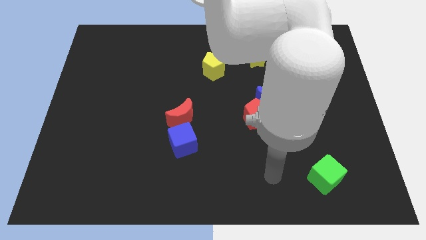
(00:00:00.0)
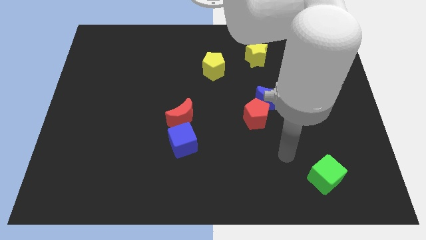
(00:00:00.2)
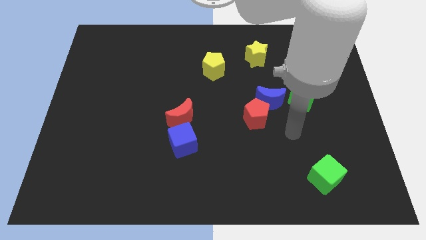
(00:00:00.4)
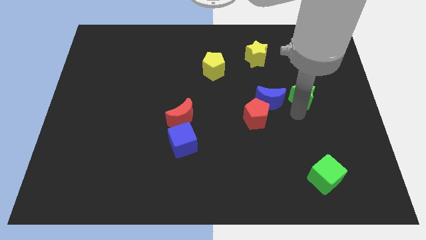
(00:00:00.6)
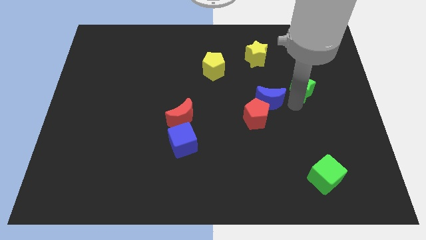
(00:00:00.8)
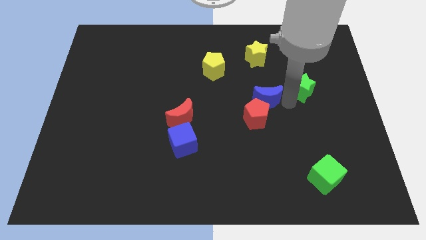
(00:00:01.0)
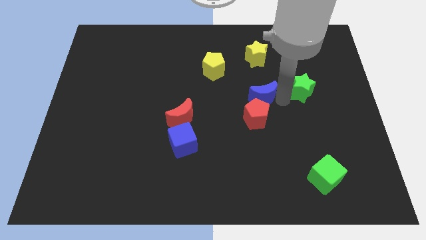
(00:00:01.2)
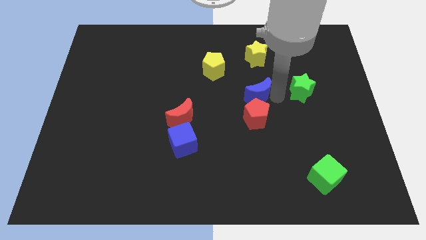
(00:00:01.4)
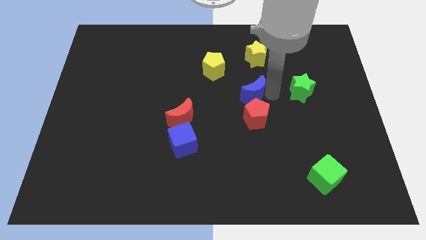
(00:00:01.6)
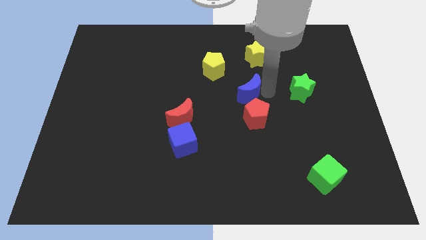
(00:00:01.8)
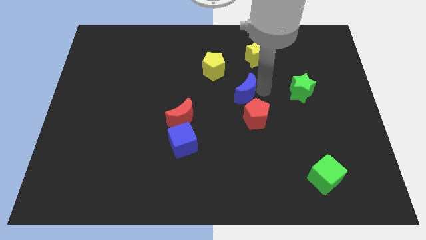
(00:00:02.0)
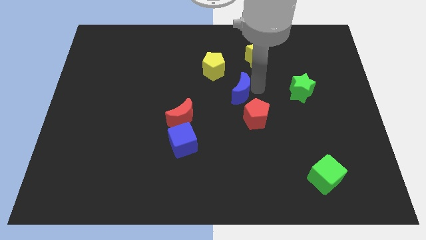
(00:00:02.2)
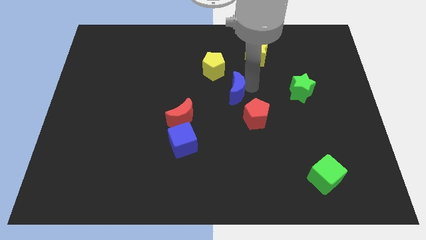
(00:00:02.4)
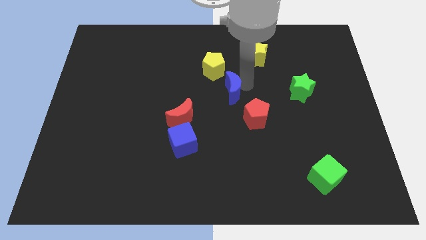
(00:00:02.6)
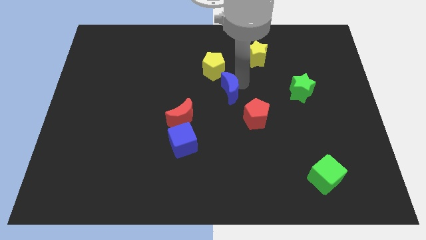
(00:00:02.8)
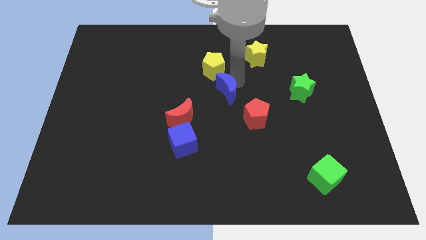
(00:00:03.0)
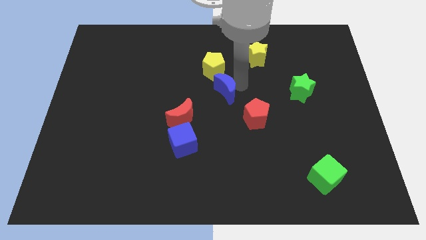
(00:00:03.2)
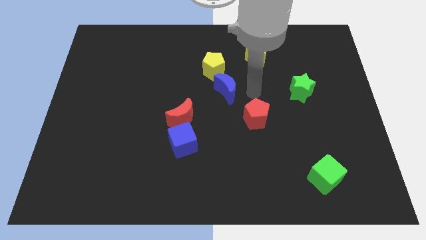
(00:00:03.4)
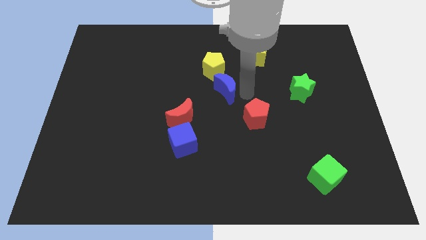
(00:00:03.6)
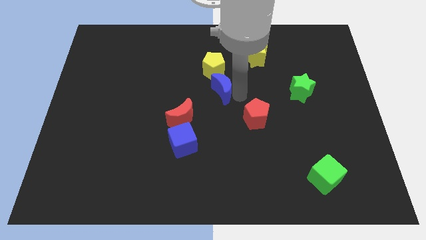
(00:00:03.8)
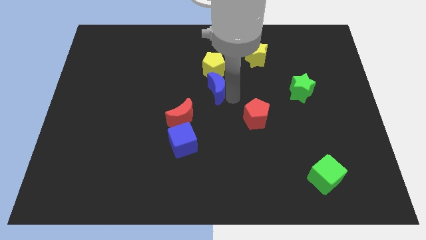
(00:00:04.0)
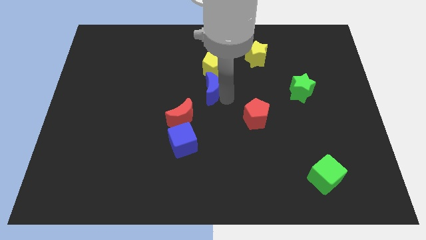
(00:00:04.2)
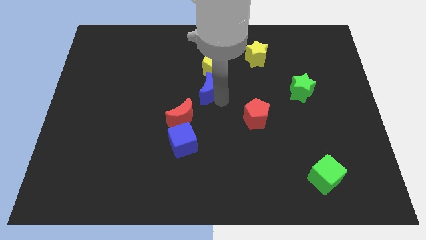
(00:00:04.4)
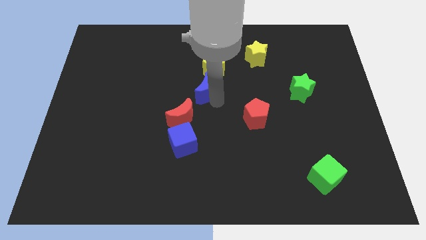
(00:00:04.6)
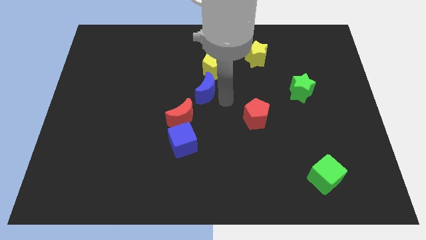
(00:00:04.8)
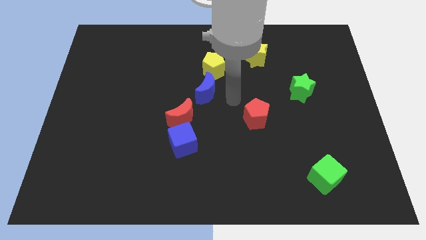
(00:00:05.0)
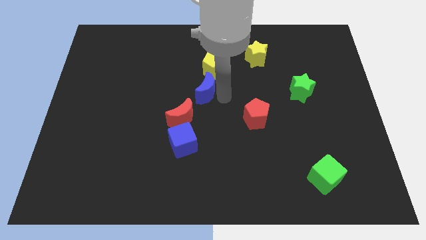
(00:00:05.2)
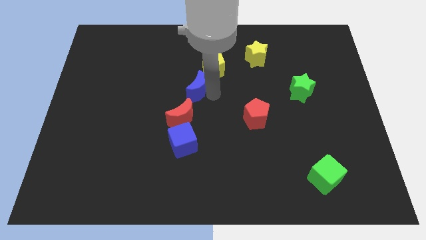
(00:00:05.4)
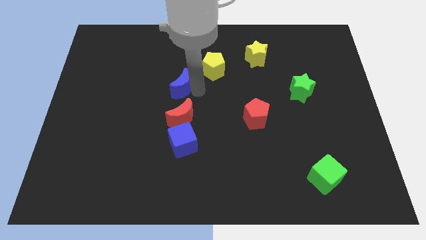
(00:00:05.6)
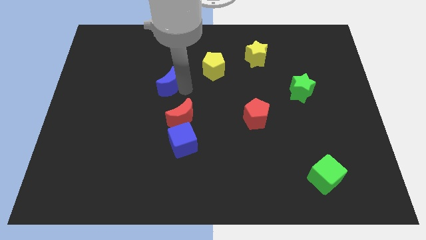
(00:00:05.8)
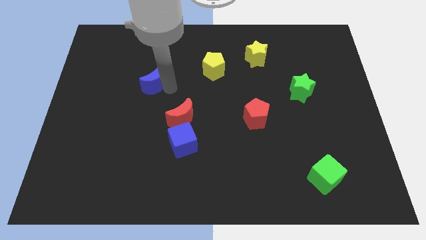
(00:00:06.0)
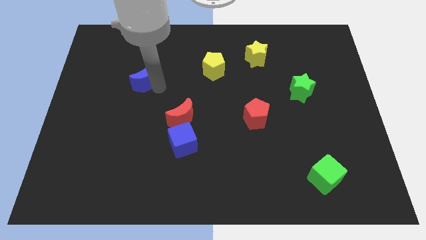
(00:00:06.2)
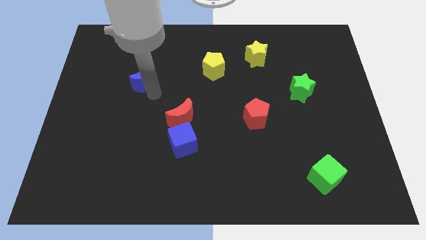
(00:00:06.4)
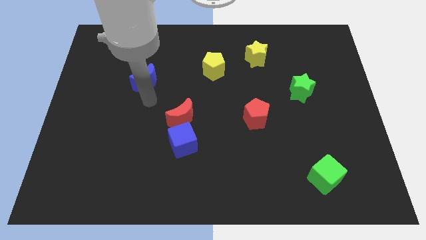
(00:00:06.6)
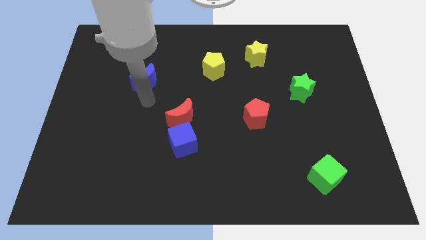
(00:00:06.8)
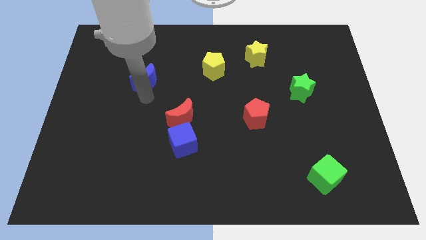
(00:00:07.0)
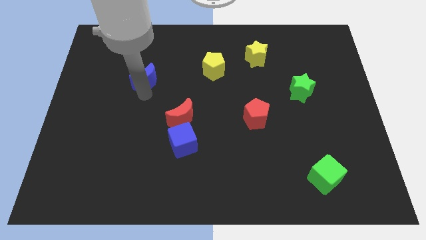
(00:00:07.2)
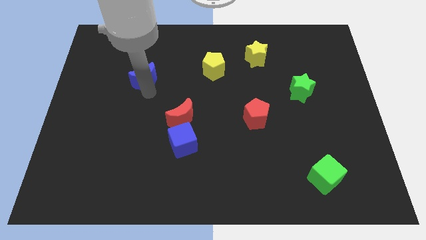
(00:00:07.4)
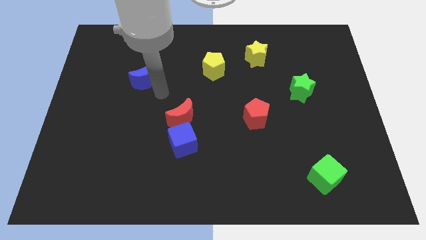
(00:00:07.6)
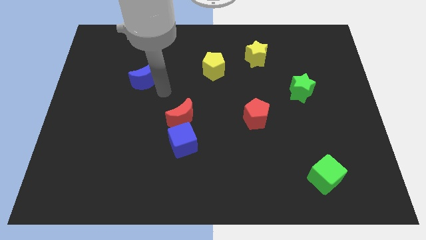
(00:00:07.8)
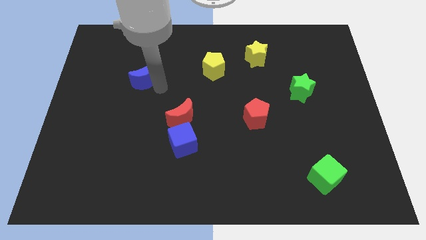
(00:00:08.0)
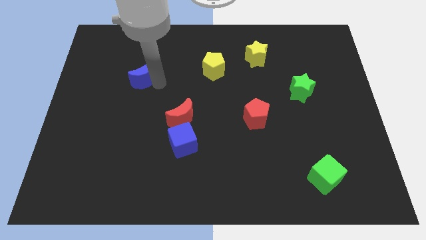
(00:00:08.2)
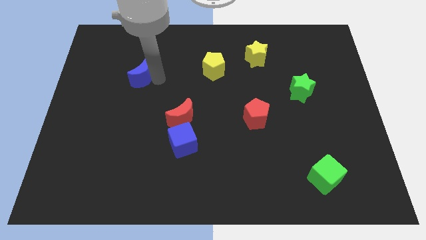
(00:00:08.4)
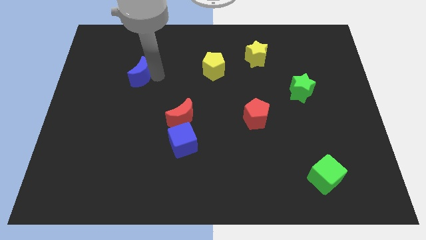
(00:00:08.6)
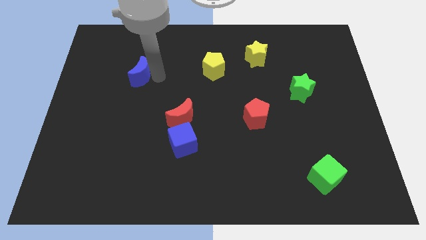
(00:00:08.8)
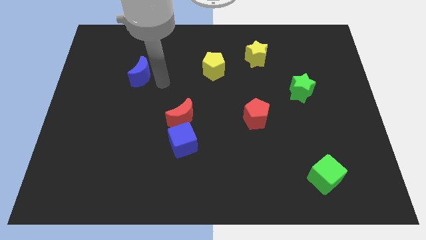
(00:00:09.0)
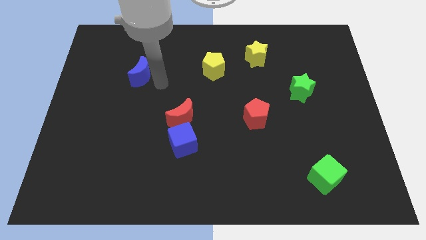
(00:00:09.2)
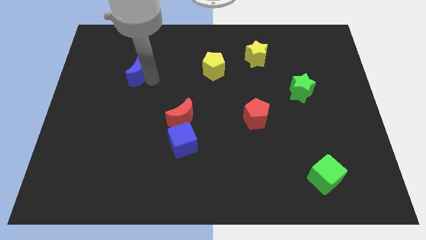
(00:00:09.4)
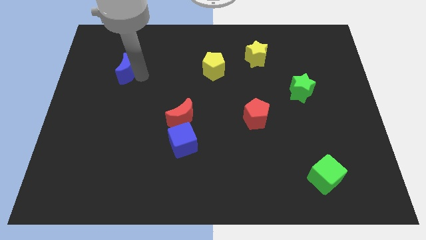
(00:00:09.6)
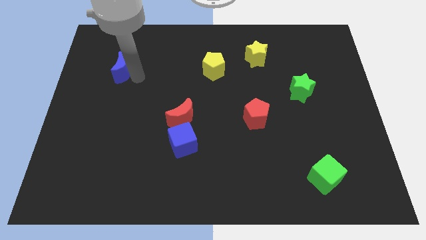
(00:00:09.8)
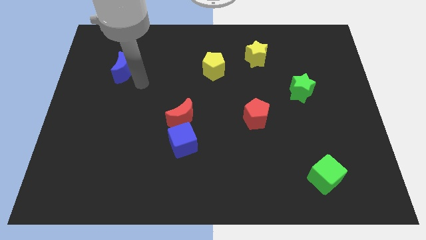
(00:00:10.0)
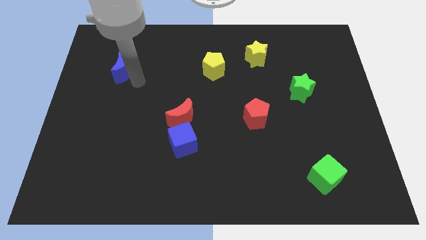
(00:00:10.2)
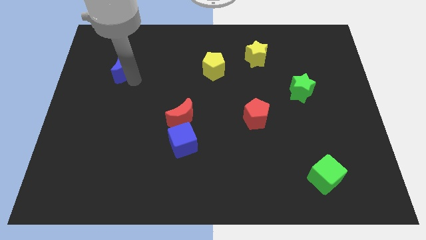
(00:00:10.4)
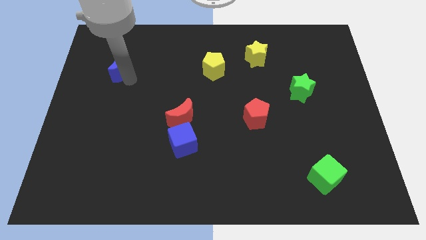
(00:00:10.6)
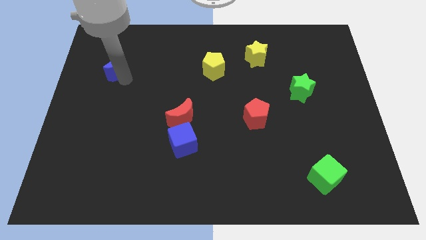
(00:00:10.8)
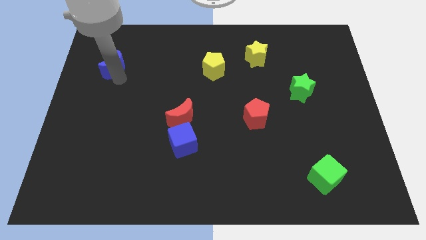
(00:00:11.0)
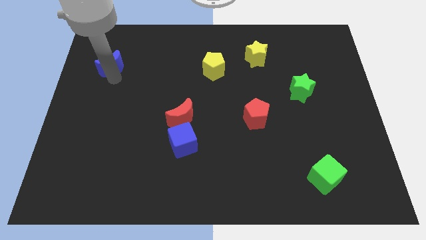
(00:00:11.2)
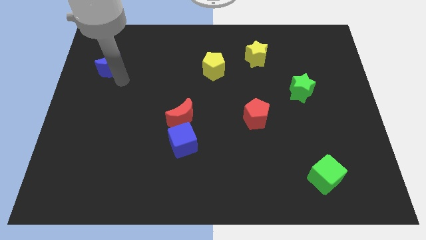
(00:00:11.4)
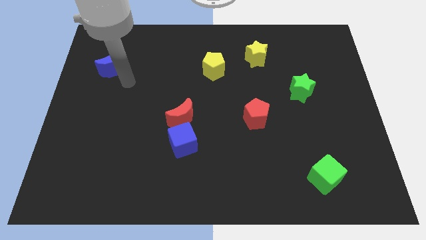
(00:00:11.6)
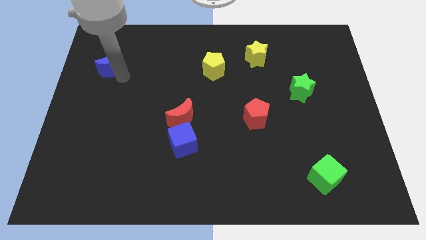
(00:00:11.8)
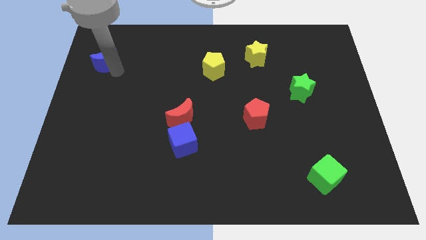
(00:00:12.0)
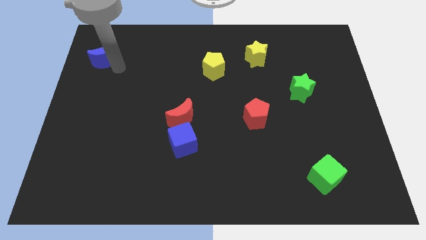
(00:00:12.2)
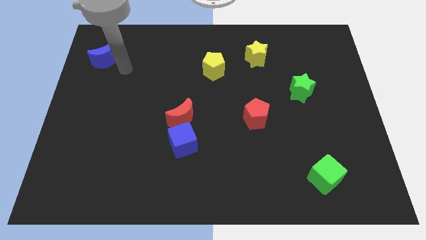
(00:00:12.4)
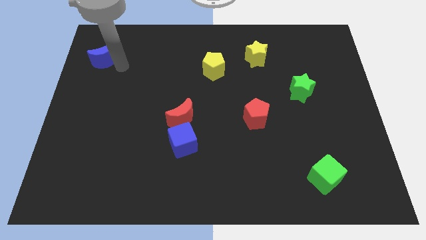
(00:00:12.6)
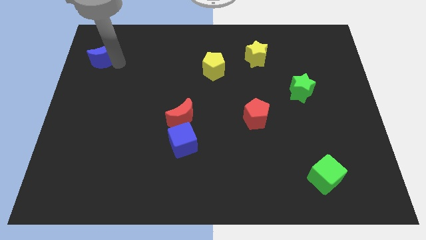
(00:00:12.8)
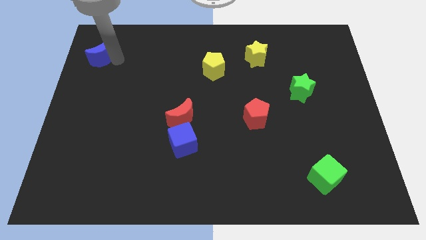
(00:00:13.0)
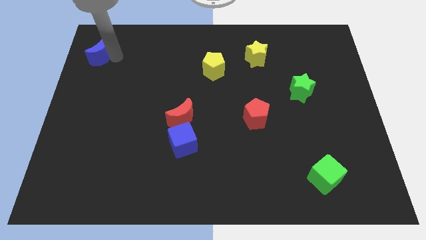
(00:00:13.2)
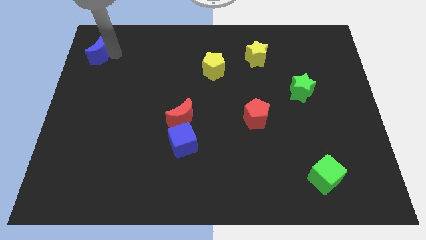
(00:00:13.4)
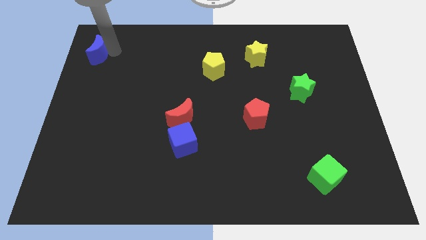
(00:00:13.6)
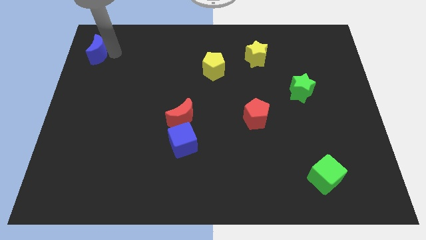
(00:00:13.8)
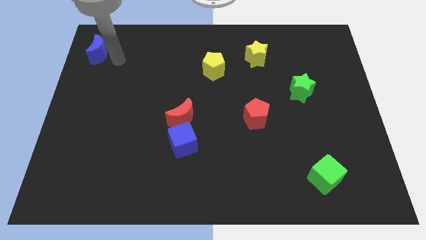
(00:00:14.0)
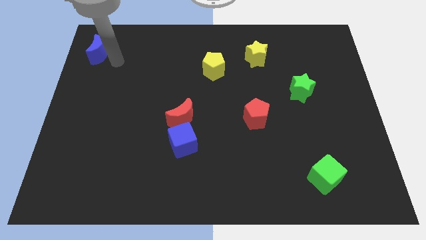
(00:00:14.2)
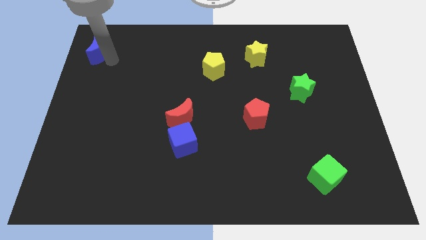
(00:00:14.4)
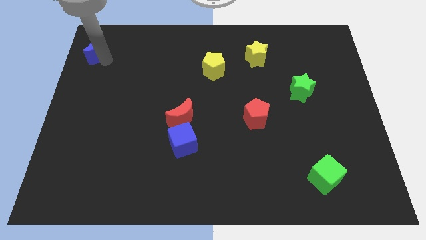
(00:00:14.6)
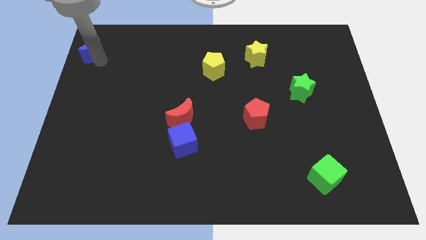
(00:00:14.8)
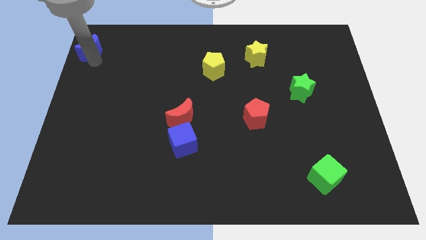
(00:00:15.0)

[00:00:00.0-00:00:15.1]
slide the blue moon to the upper left corner
